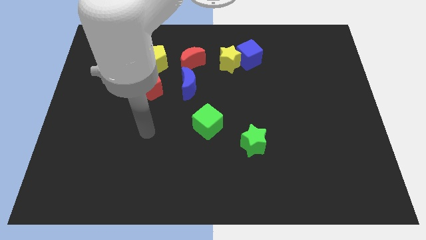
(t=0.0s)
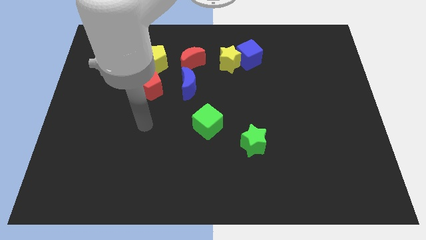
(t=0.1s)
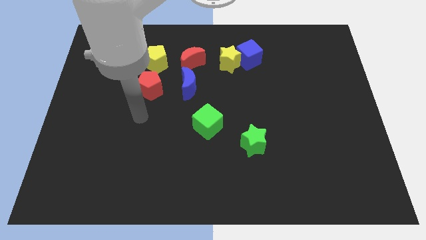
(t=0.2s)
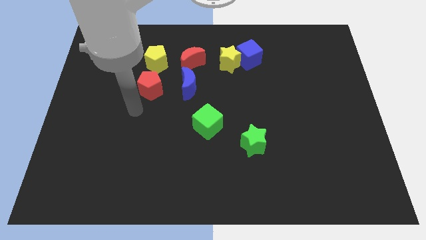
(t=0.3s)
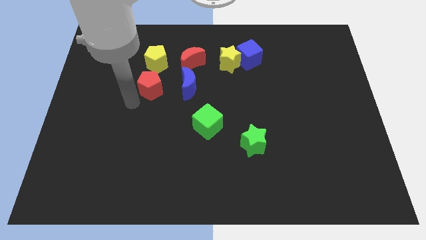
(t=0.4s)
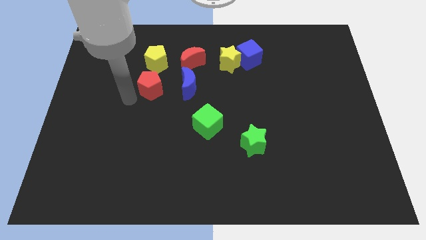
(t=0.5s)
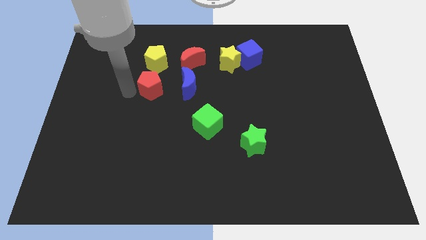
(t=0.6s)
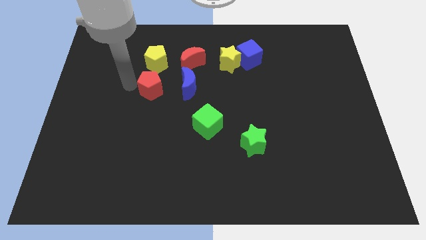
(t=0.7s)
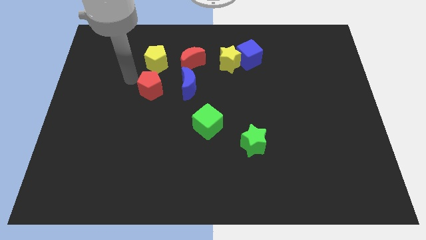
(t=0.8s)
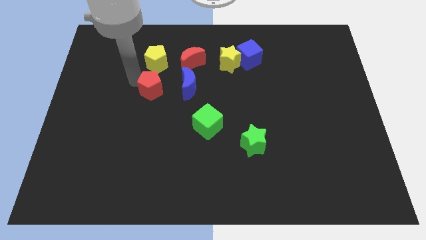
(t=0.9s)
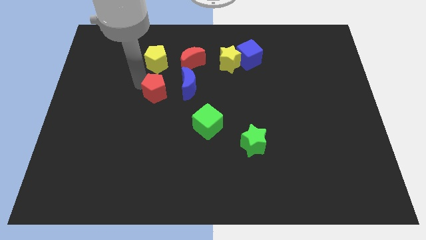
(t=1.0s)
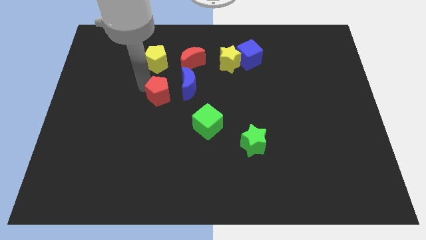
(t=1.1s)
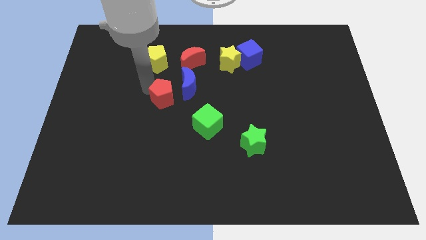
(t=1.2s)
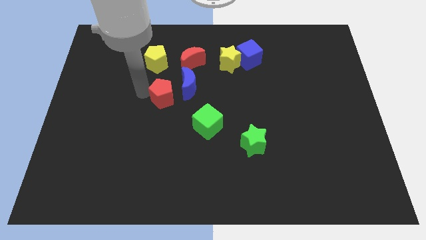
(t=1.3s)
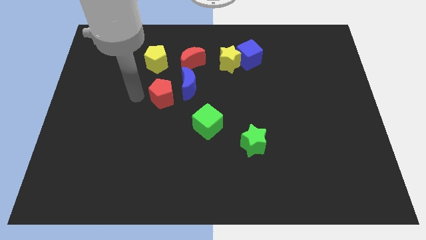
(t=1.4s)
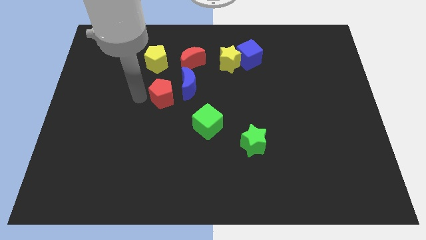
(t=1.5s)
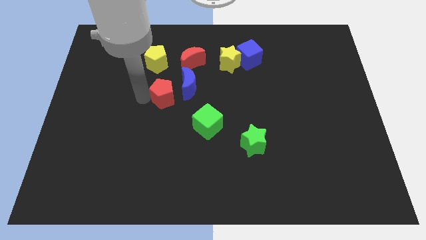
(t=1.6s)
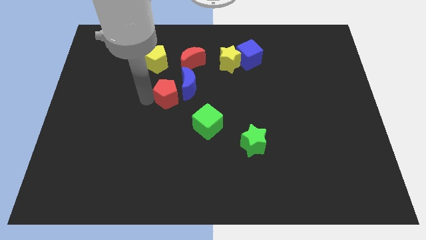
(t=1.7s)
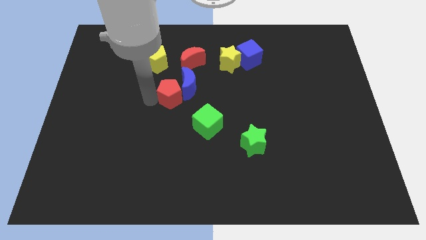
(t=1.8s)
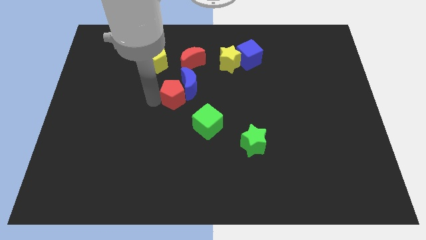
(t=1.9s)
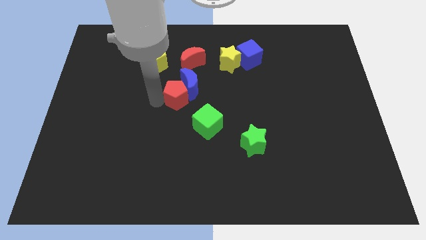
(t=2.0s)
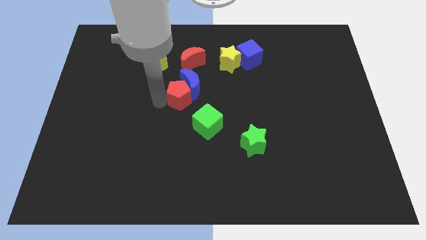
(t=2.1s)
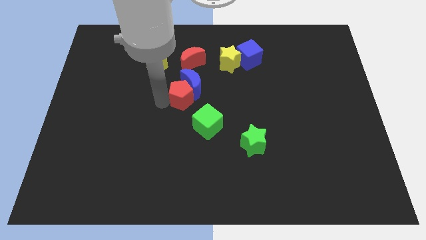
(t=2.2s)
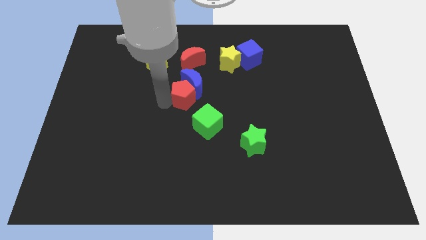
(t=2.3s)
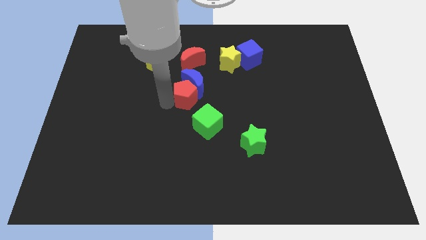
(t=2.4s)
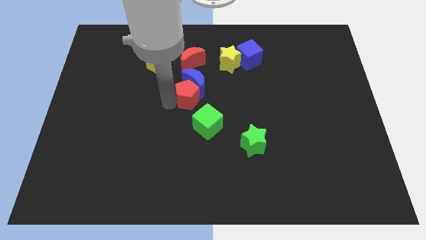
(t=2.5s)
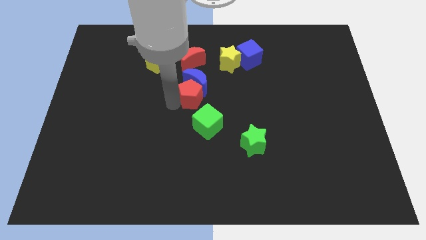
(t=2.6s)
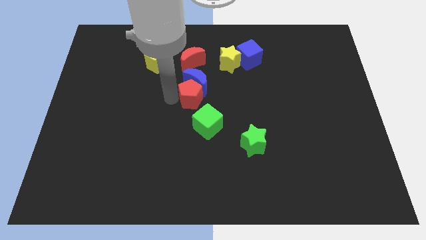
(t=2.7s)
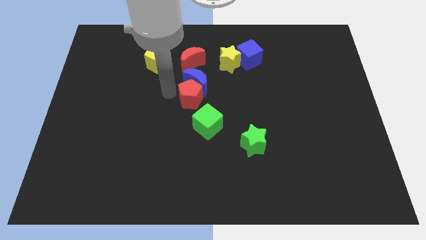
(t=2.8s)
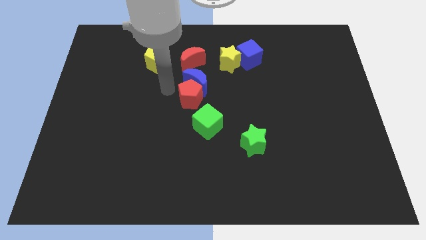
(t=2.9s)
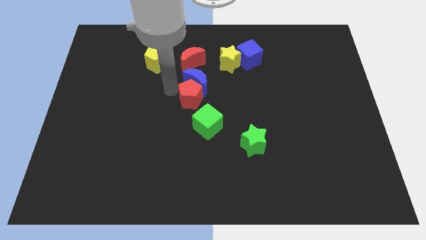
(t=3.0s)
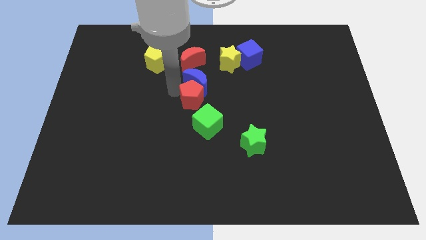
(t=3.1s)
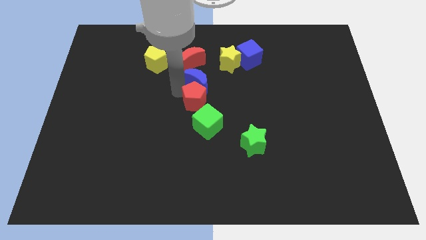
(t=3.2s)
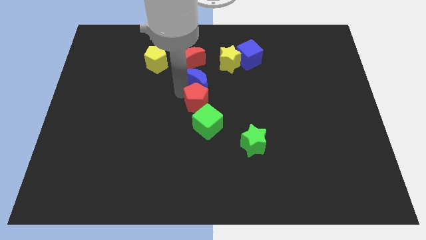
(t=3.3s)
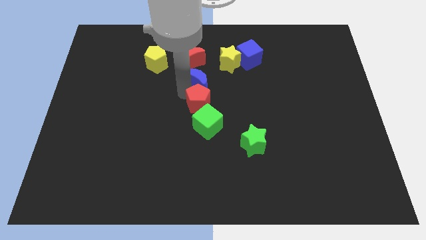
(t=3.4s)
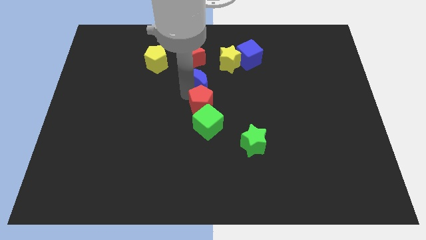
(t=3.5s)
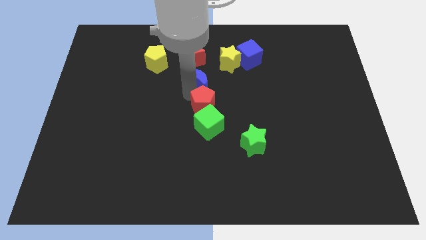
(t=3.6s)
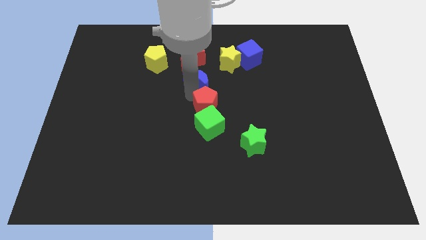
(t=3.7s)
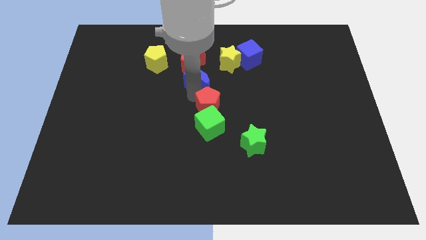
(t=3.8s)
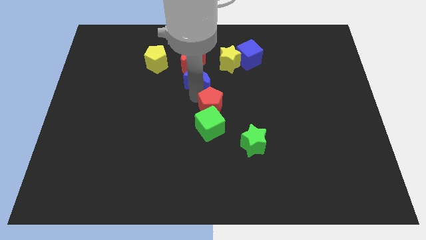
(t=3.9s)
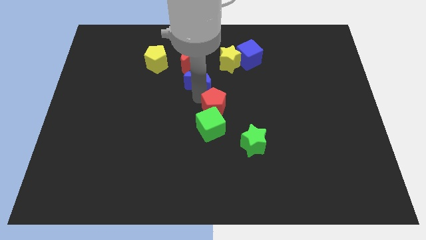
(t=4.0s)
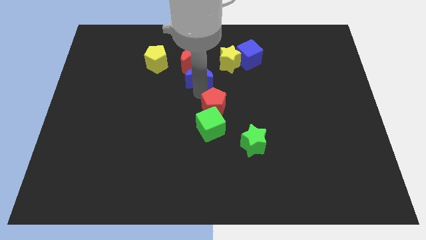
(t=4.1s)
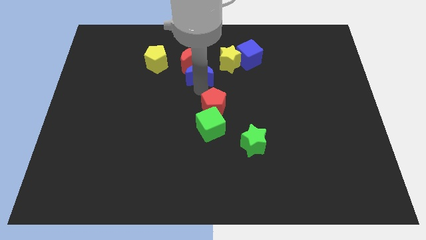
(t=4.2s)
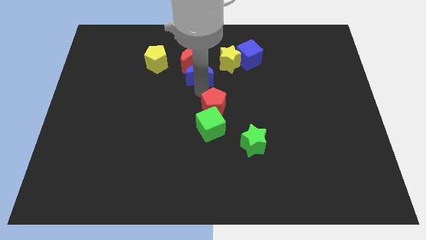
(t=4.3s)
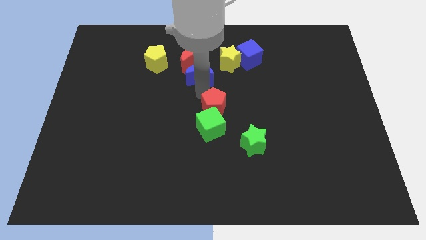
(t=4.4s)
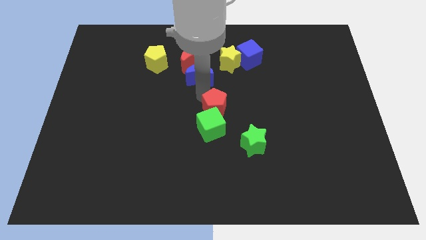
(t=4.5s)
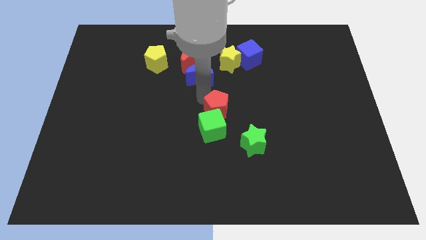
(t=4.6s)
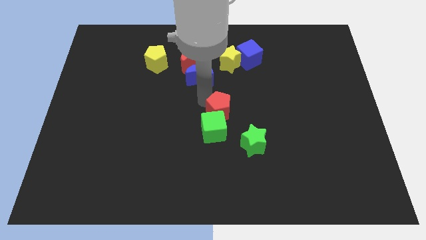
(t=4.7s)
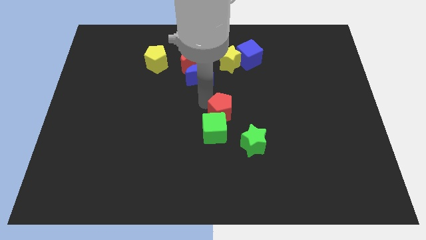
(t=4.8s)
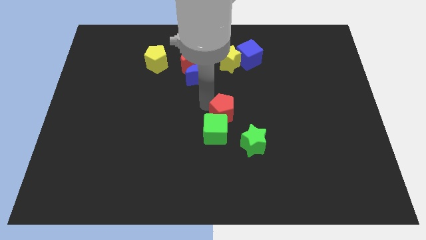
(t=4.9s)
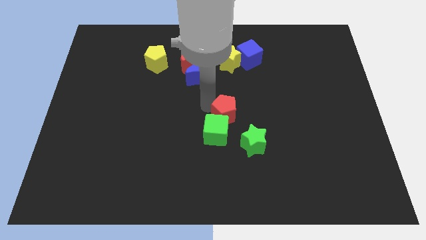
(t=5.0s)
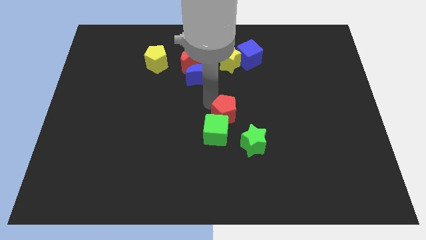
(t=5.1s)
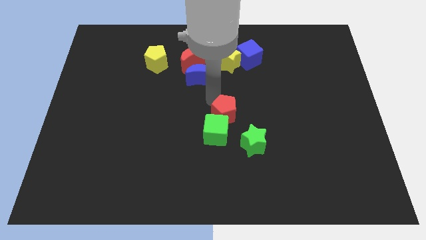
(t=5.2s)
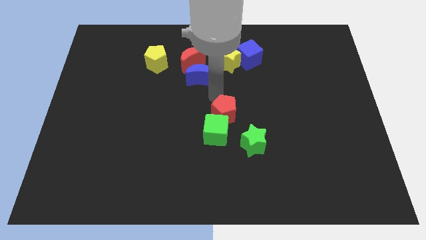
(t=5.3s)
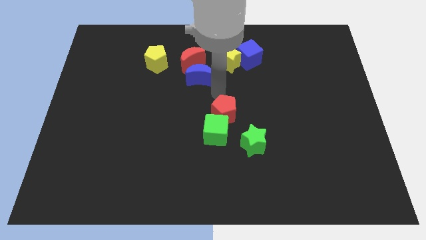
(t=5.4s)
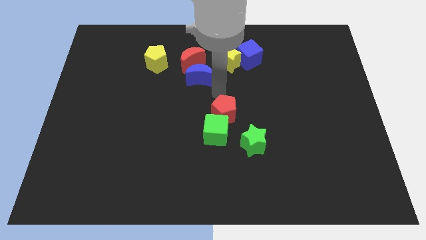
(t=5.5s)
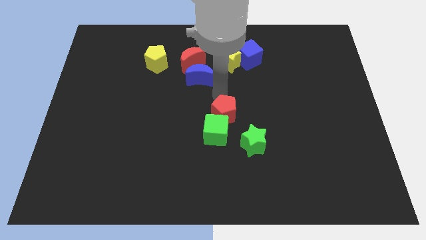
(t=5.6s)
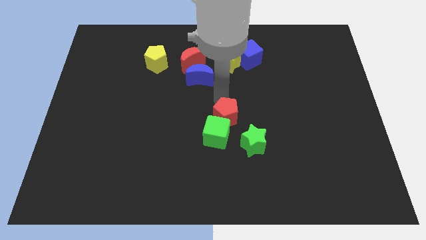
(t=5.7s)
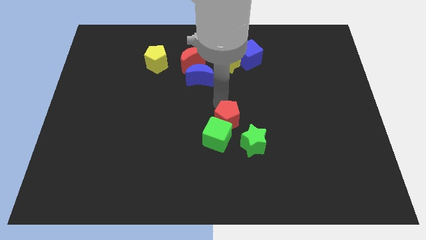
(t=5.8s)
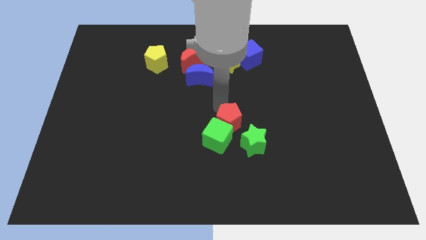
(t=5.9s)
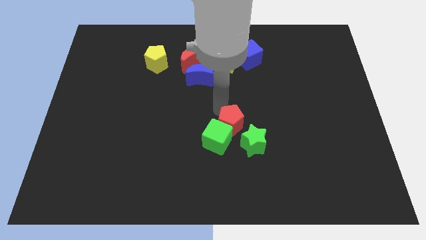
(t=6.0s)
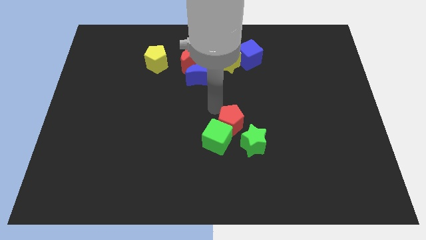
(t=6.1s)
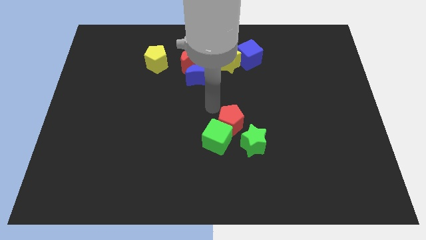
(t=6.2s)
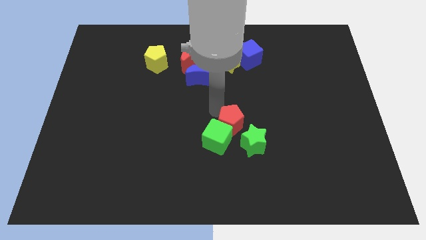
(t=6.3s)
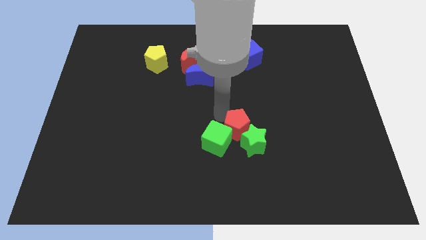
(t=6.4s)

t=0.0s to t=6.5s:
push the red pentagon close to the green star

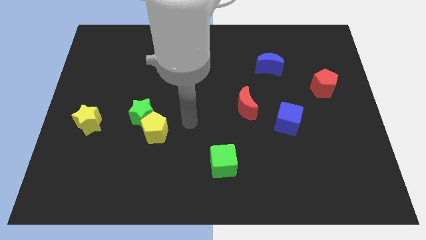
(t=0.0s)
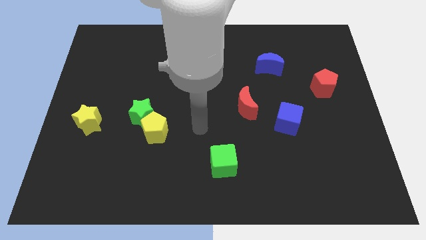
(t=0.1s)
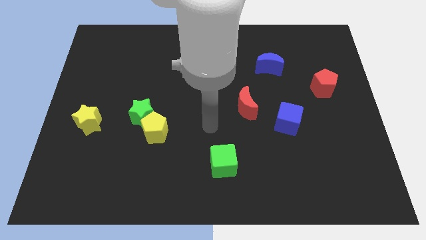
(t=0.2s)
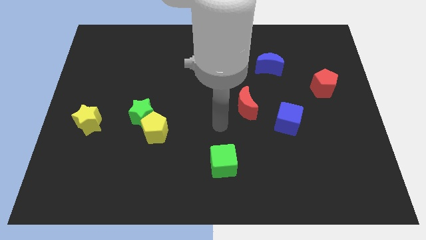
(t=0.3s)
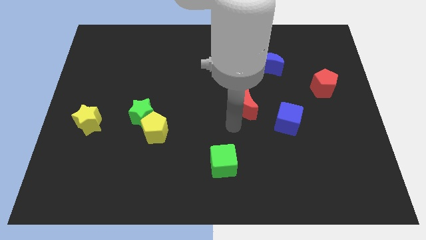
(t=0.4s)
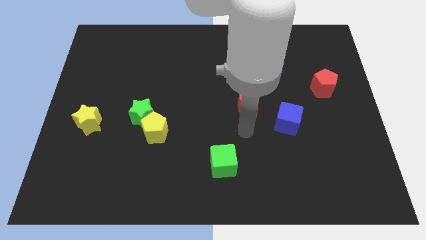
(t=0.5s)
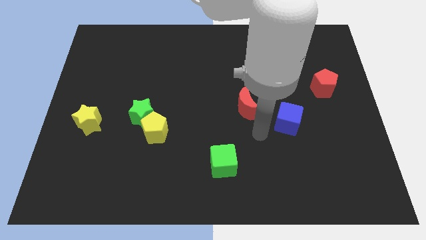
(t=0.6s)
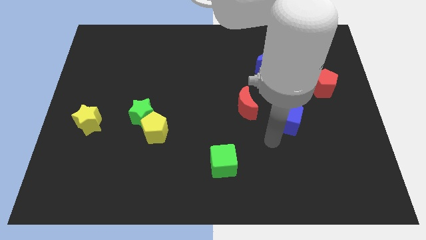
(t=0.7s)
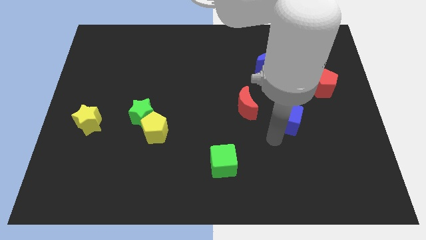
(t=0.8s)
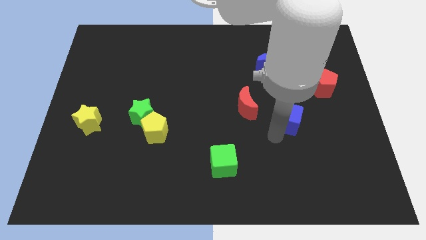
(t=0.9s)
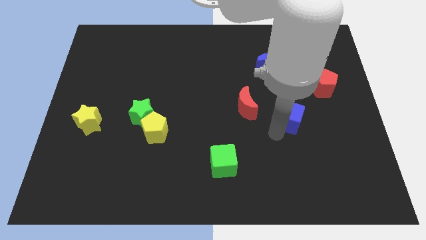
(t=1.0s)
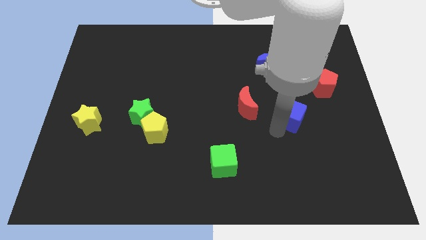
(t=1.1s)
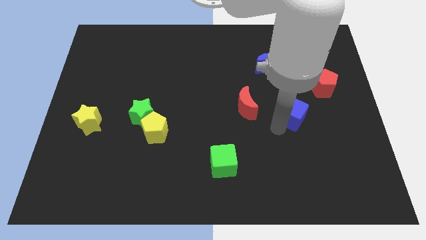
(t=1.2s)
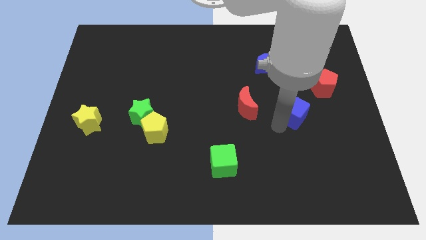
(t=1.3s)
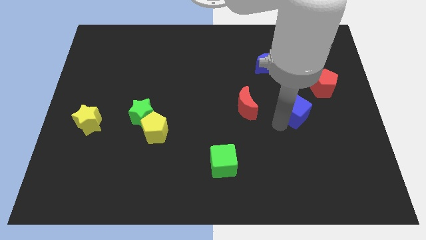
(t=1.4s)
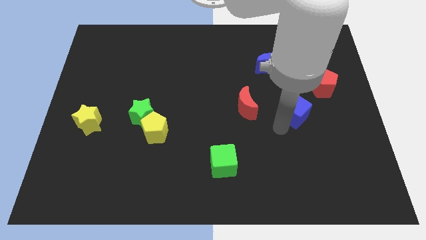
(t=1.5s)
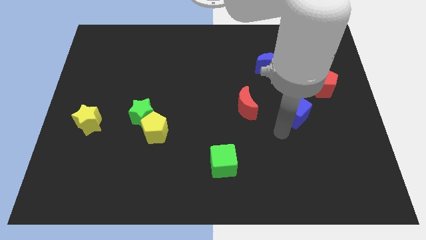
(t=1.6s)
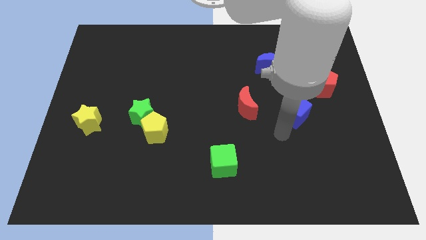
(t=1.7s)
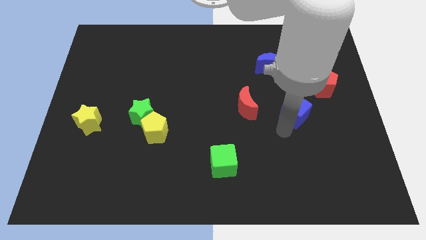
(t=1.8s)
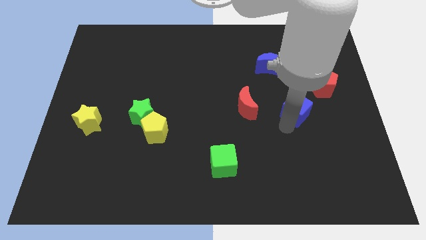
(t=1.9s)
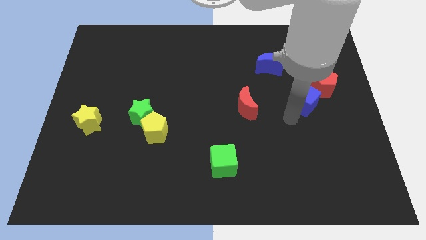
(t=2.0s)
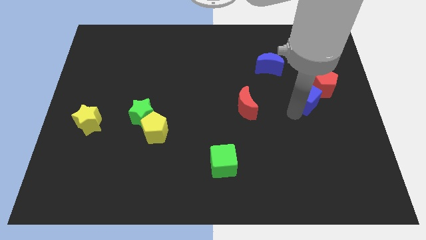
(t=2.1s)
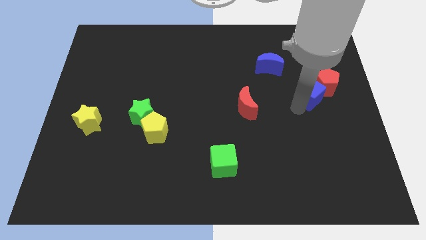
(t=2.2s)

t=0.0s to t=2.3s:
put the blue cube to the red pentagon
